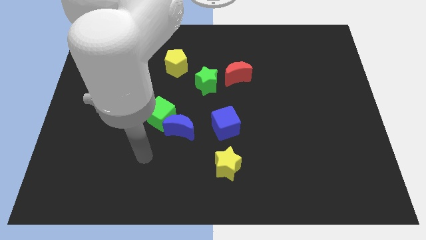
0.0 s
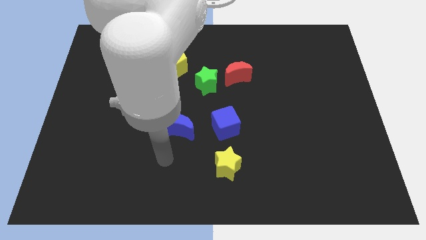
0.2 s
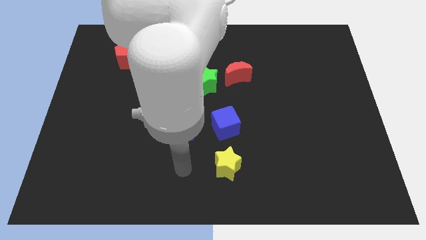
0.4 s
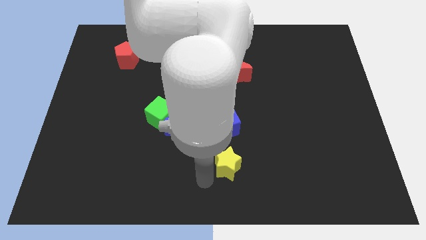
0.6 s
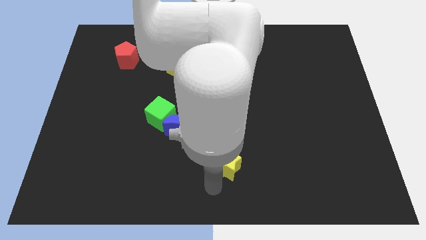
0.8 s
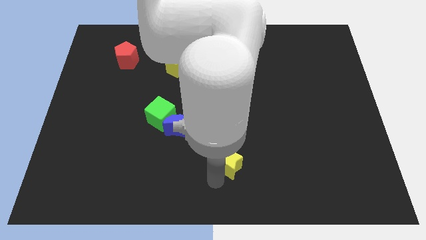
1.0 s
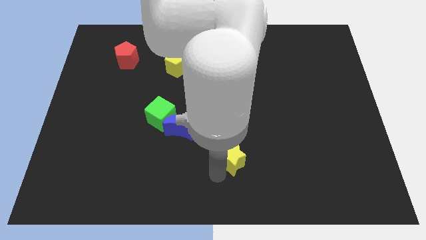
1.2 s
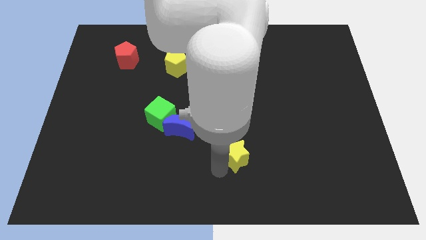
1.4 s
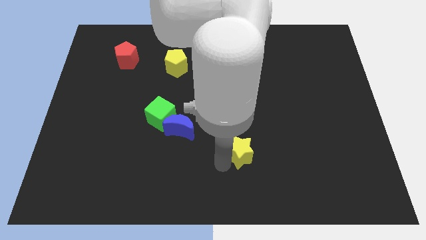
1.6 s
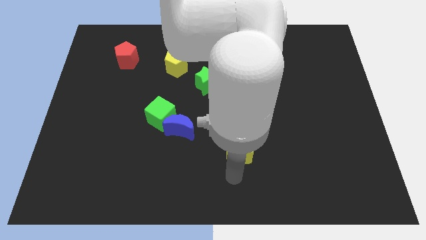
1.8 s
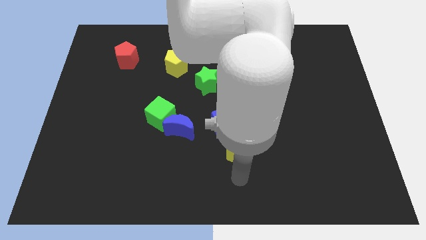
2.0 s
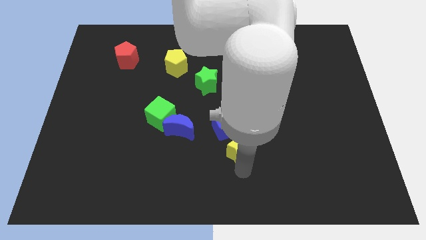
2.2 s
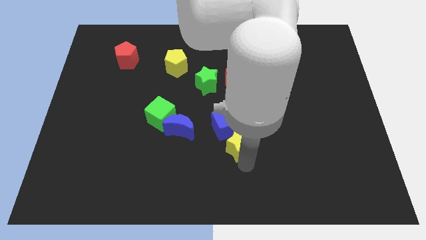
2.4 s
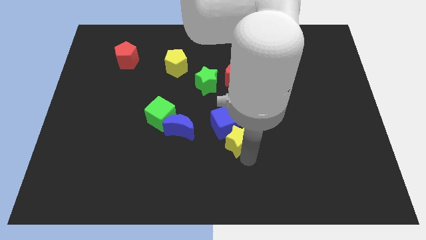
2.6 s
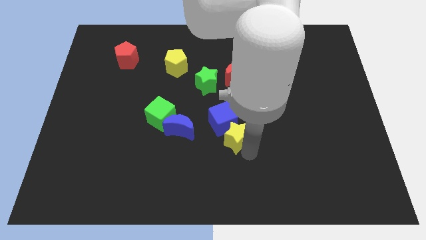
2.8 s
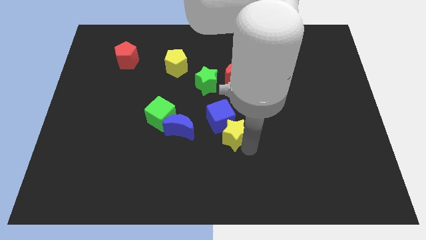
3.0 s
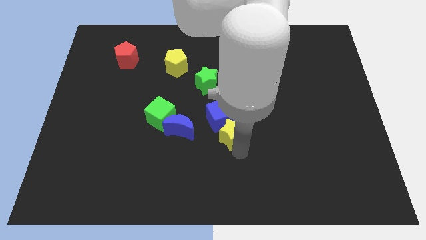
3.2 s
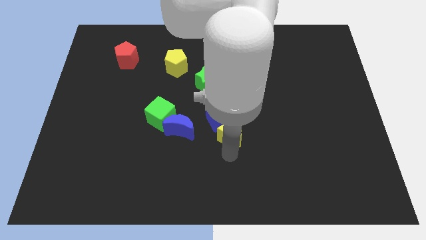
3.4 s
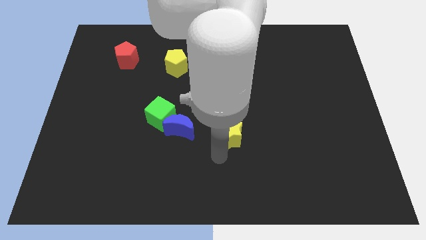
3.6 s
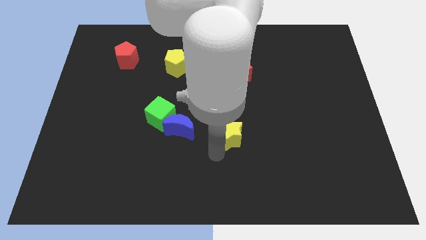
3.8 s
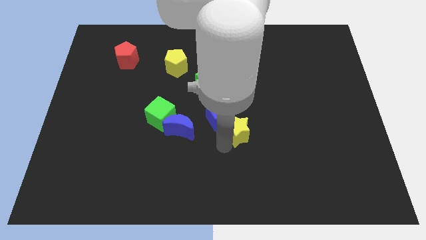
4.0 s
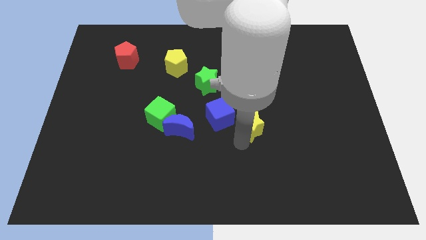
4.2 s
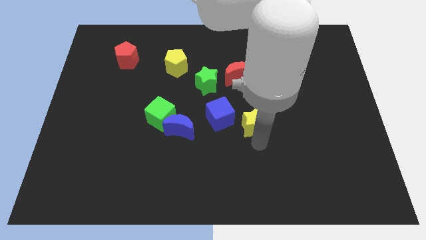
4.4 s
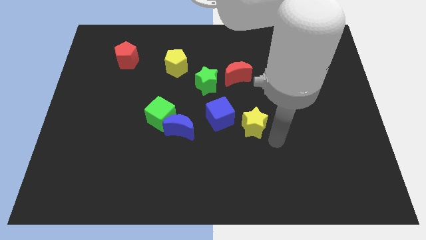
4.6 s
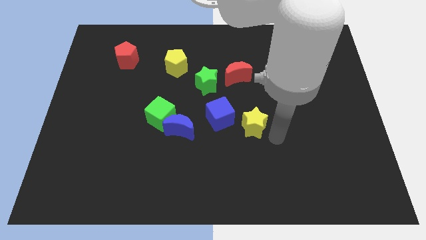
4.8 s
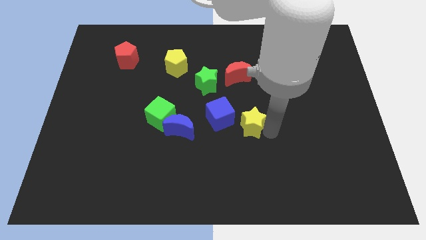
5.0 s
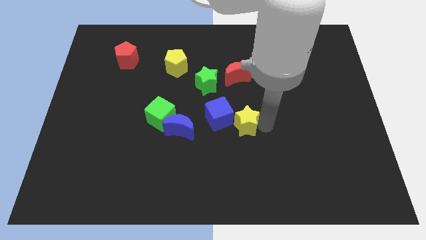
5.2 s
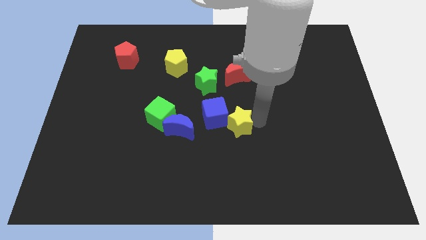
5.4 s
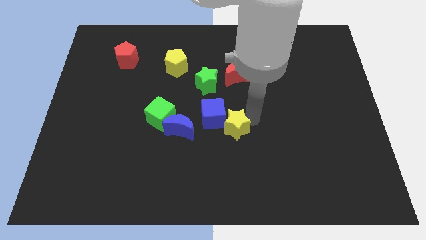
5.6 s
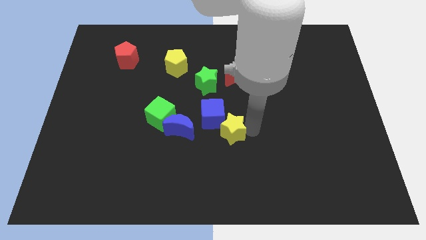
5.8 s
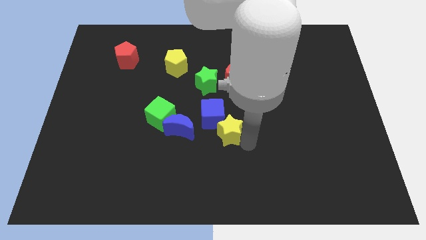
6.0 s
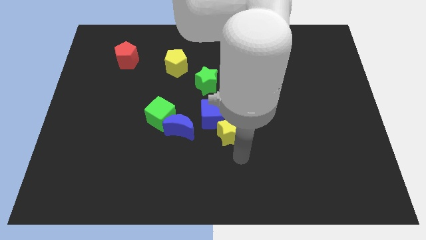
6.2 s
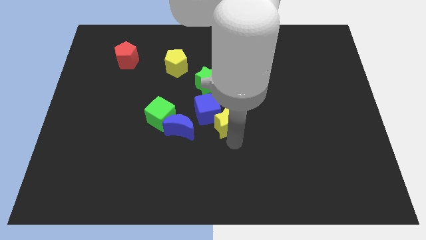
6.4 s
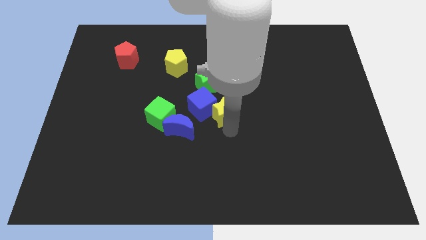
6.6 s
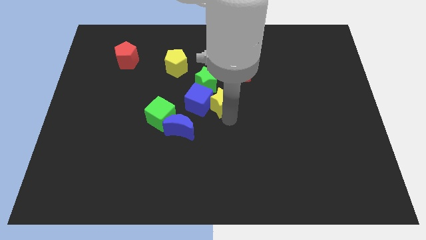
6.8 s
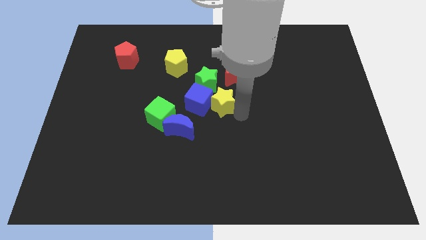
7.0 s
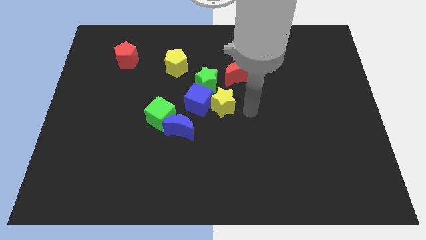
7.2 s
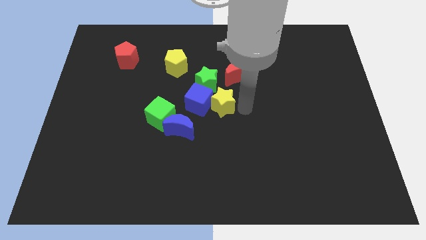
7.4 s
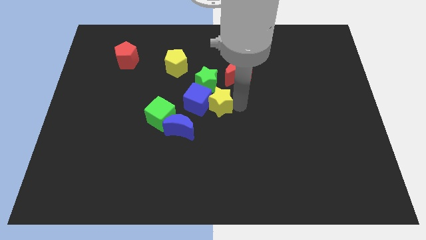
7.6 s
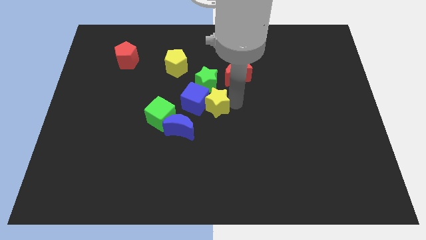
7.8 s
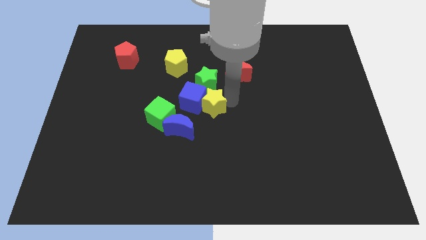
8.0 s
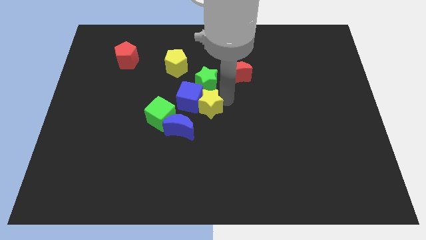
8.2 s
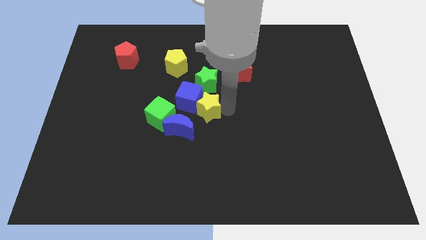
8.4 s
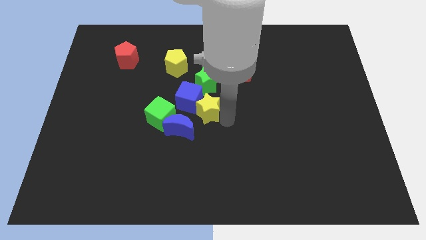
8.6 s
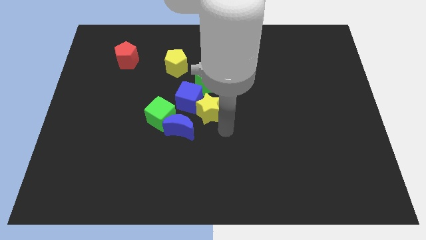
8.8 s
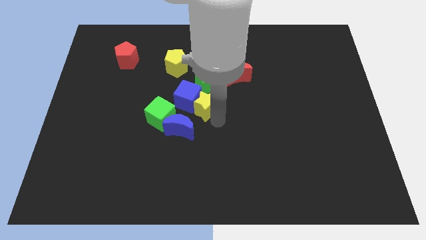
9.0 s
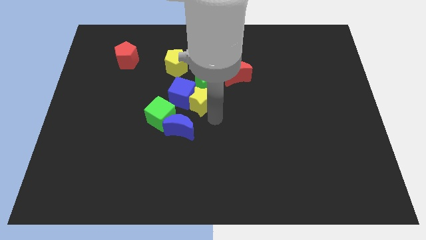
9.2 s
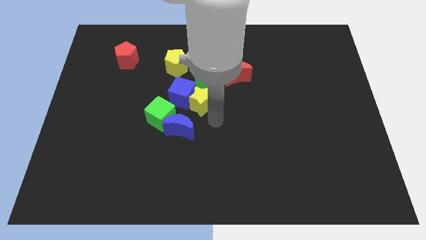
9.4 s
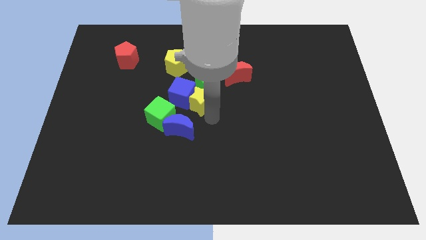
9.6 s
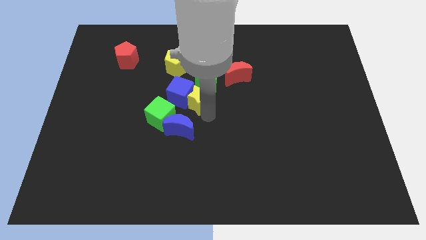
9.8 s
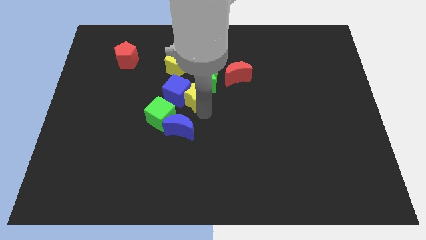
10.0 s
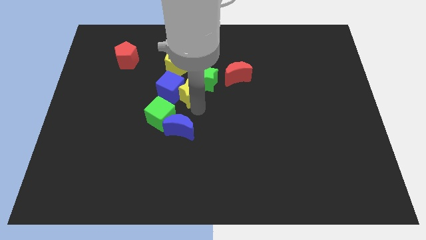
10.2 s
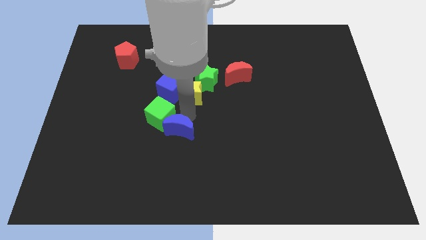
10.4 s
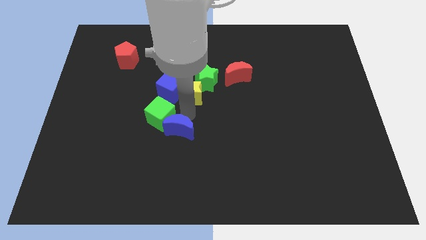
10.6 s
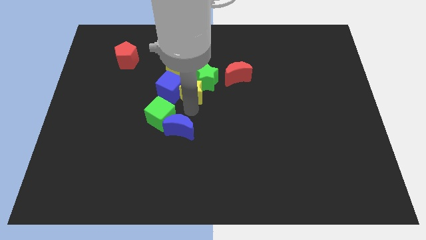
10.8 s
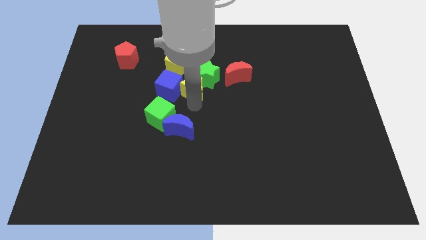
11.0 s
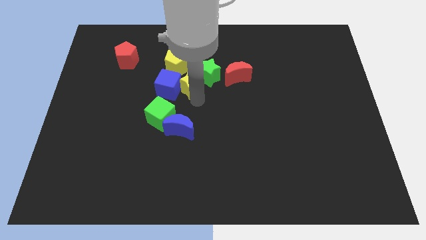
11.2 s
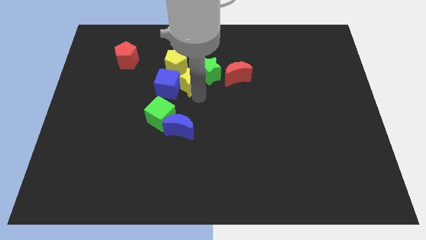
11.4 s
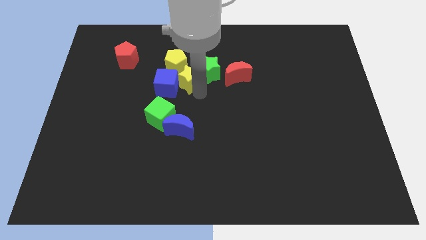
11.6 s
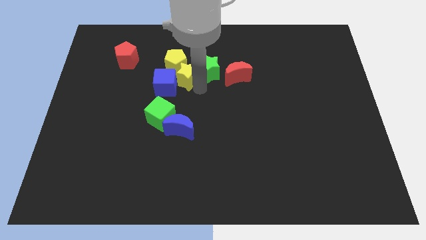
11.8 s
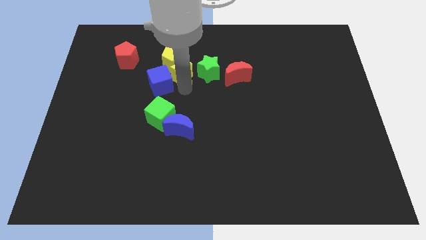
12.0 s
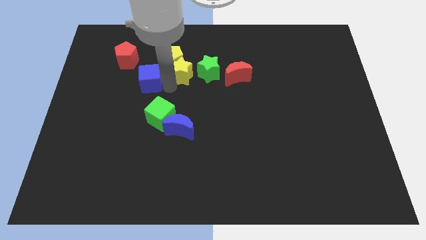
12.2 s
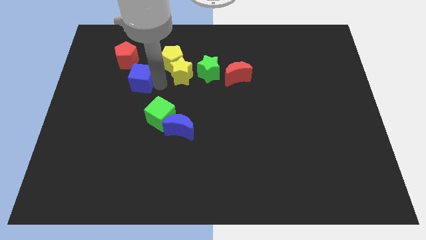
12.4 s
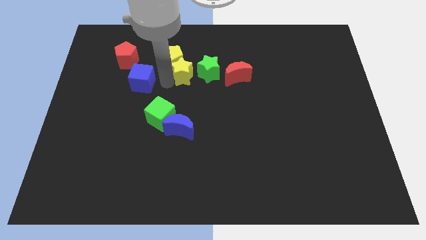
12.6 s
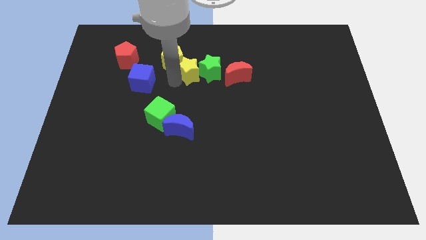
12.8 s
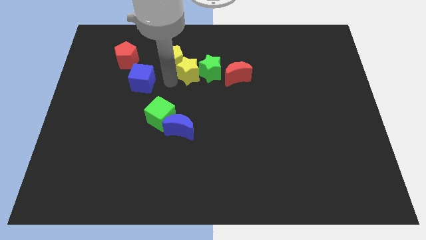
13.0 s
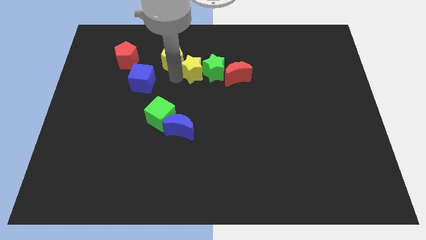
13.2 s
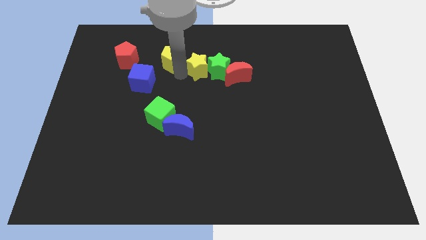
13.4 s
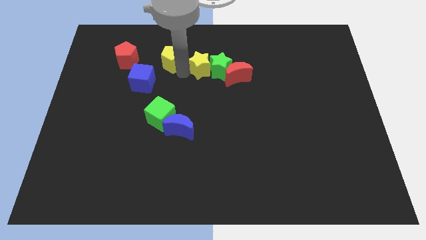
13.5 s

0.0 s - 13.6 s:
put the yellow star diagonally up and to the left of the red moon

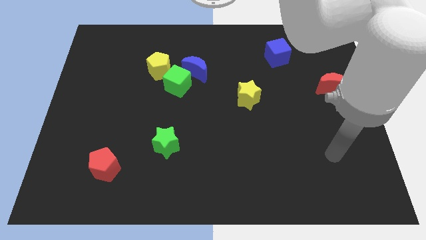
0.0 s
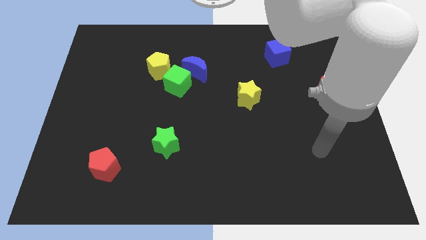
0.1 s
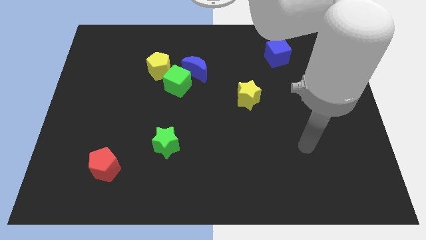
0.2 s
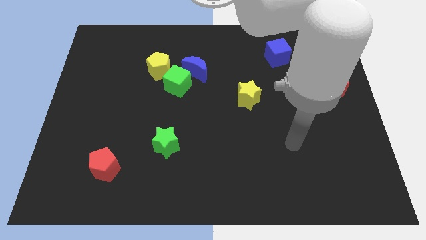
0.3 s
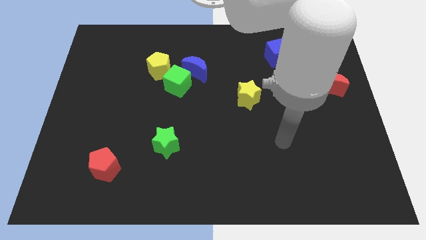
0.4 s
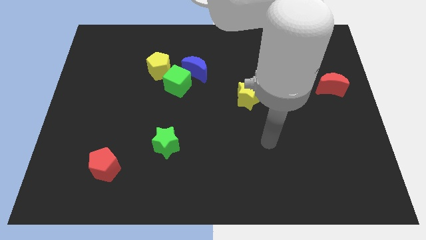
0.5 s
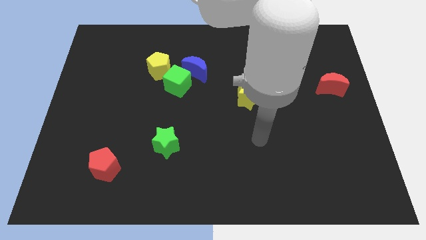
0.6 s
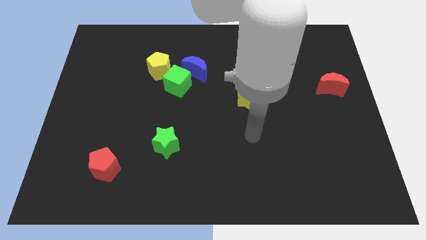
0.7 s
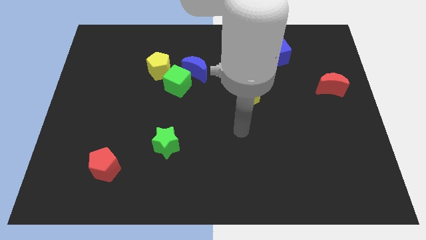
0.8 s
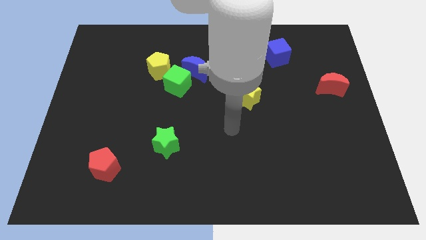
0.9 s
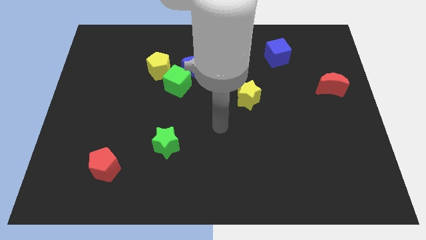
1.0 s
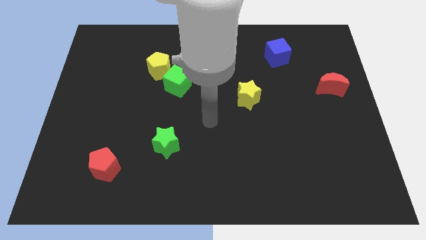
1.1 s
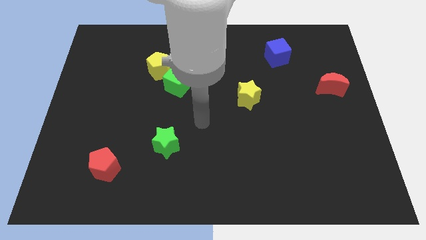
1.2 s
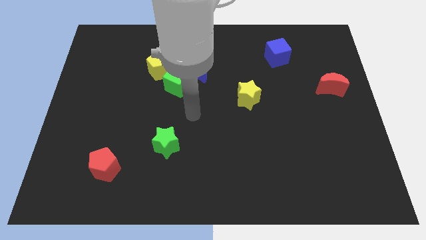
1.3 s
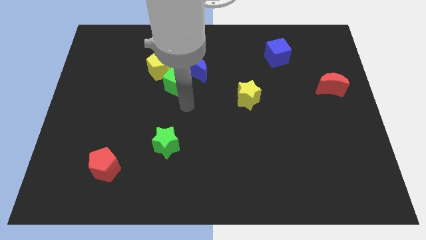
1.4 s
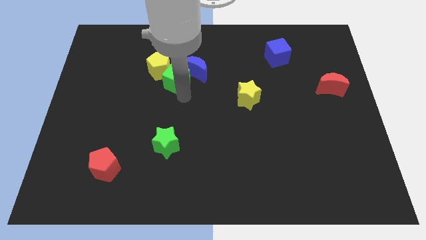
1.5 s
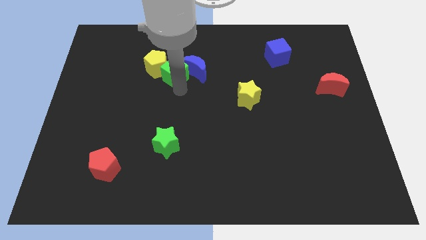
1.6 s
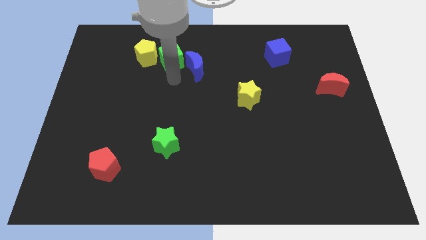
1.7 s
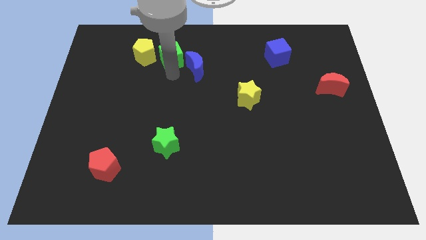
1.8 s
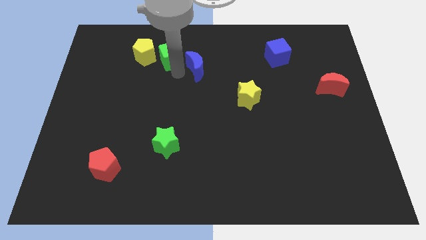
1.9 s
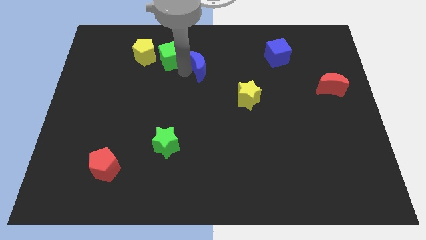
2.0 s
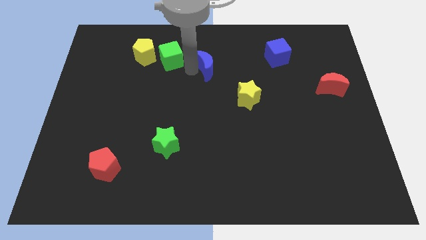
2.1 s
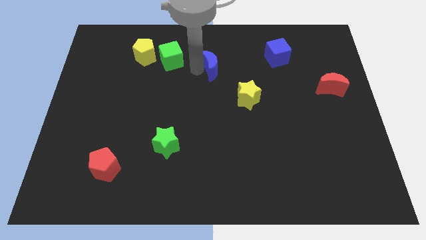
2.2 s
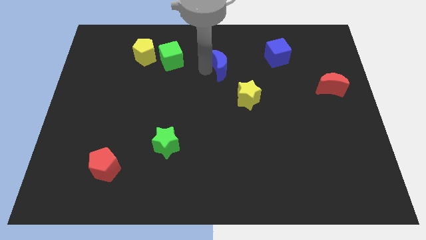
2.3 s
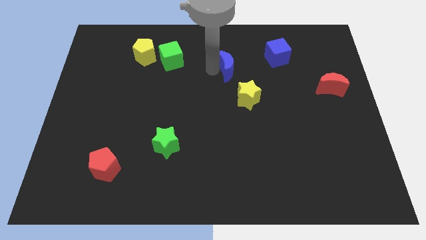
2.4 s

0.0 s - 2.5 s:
slide the blue moon to the left of the blue cube
